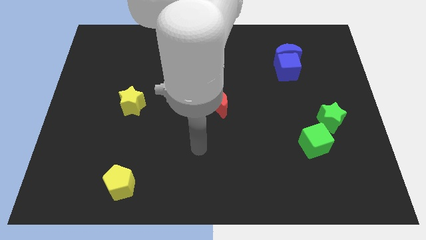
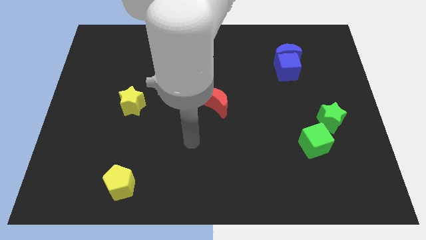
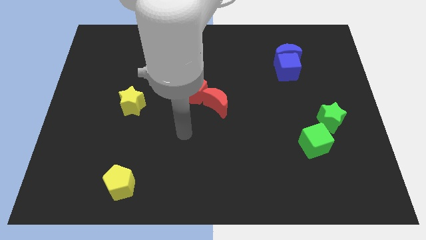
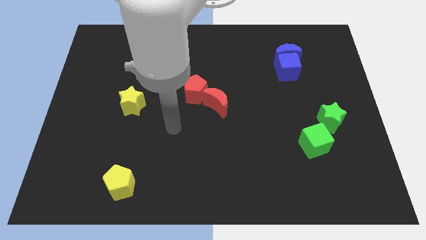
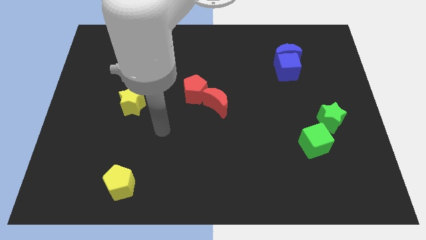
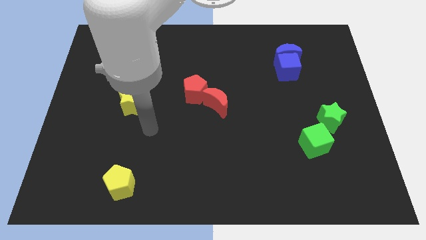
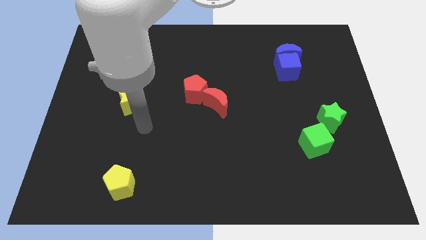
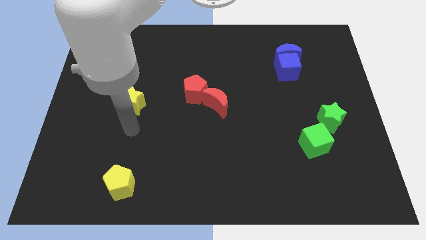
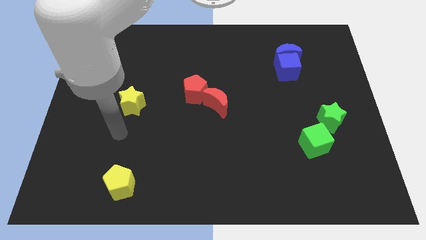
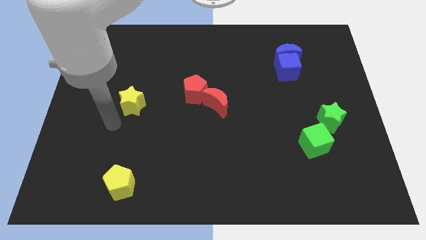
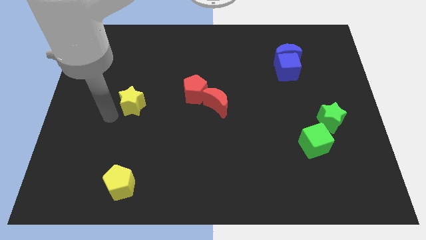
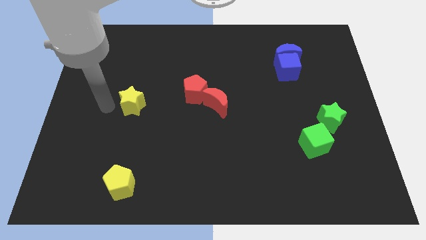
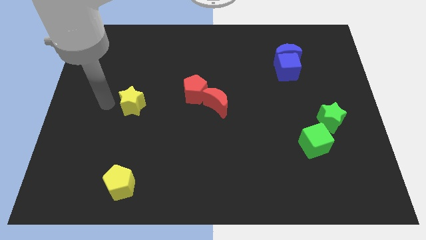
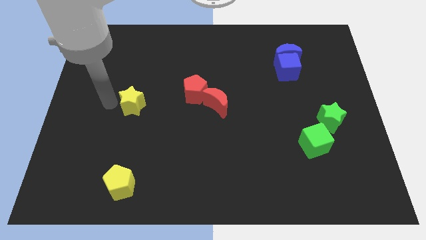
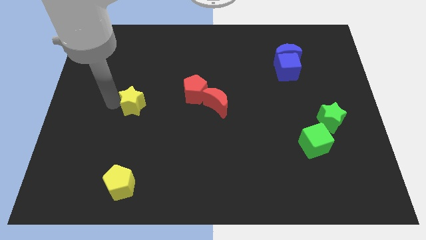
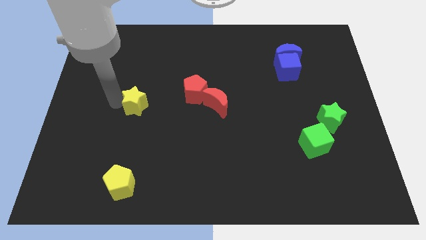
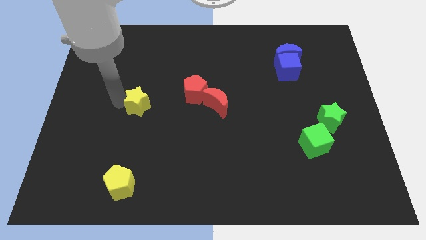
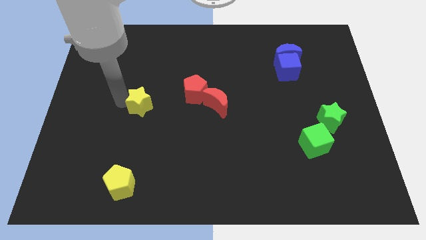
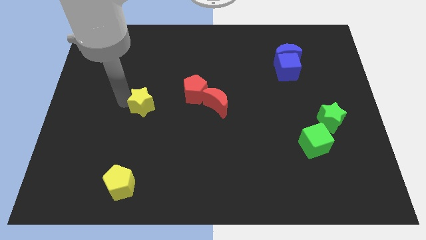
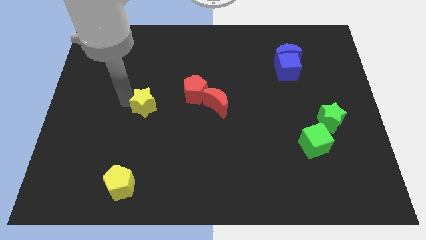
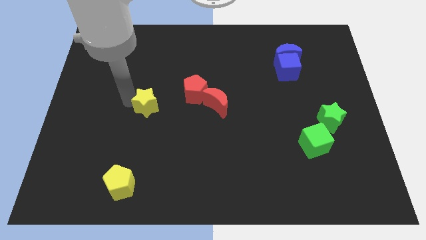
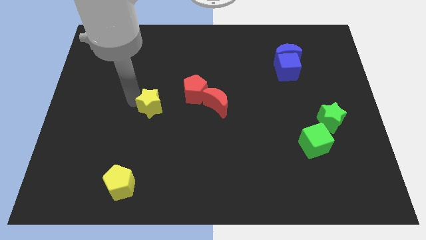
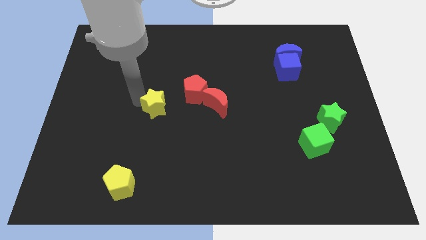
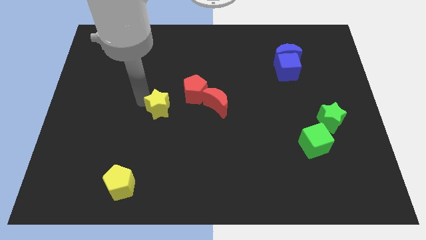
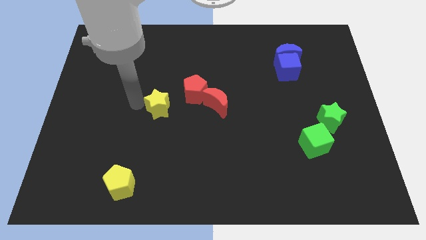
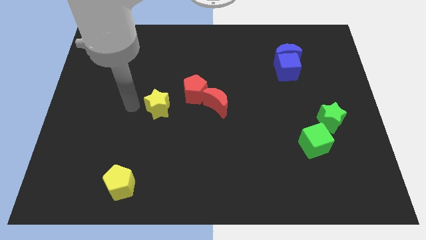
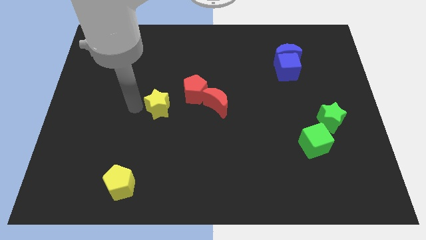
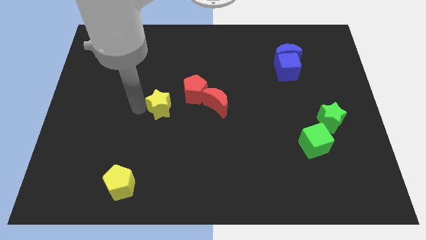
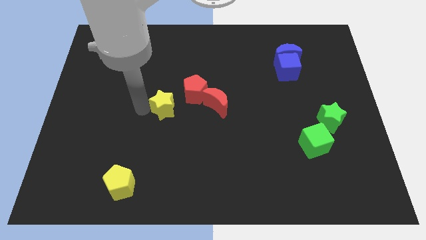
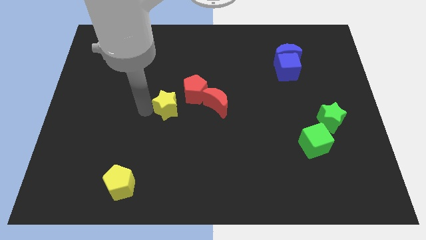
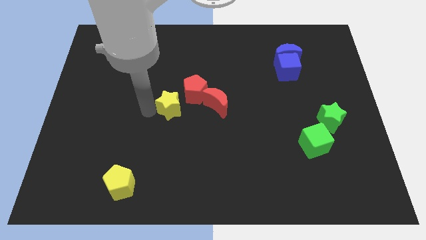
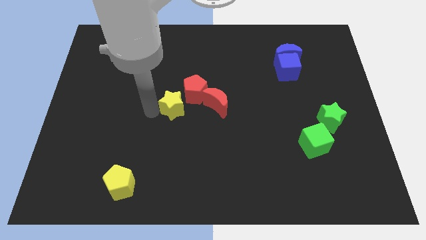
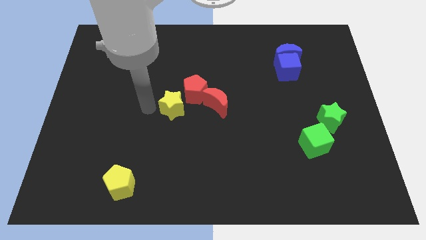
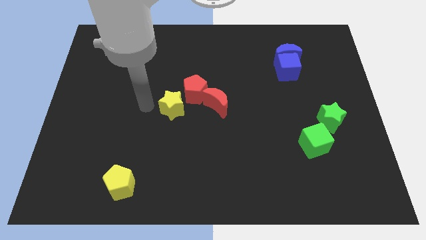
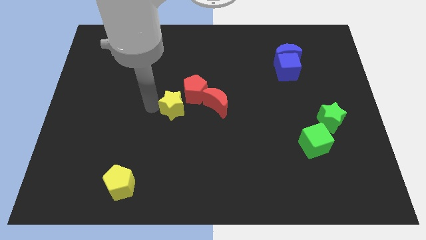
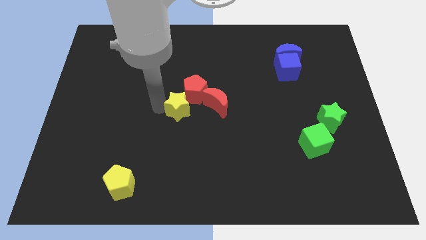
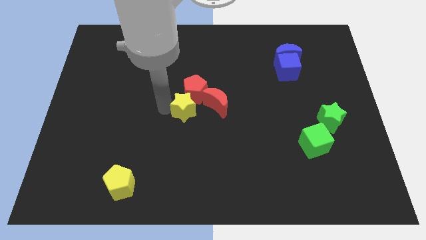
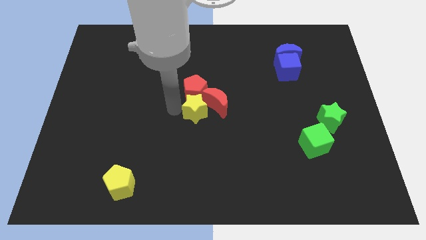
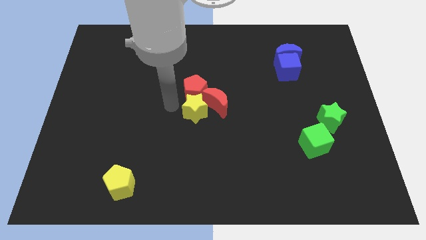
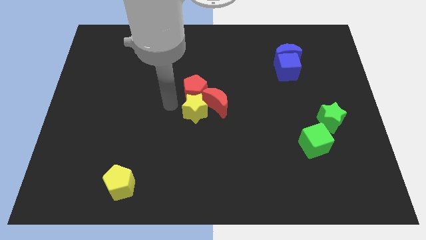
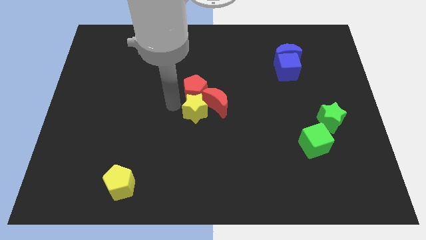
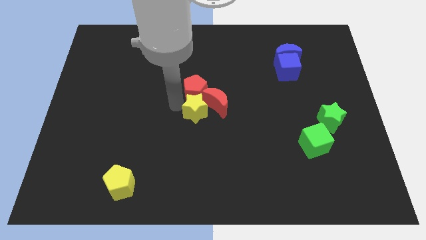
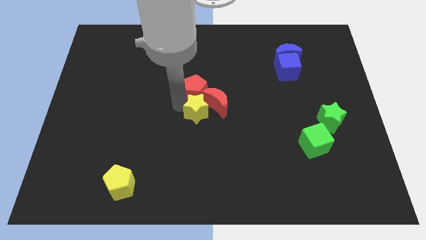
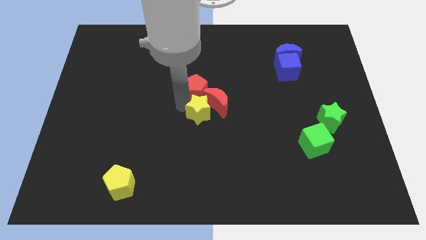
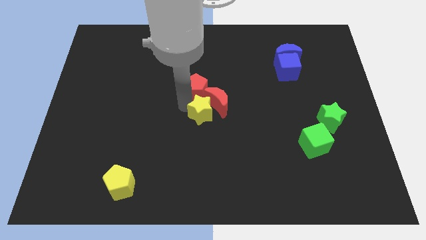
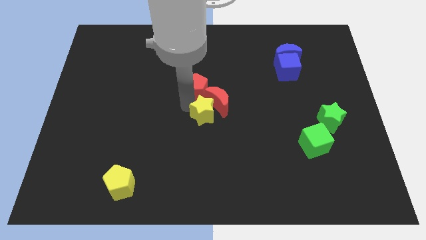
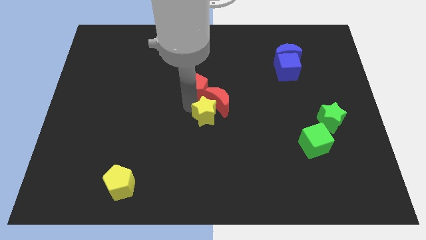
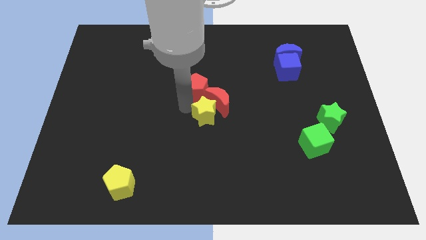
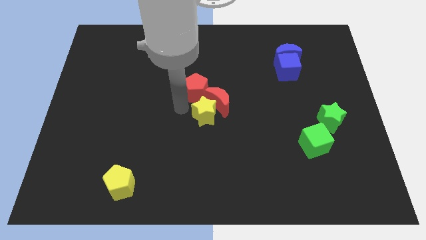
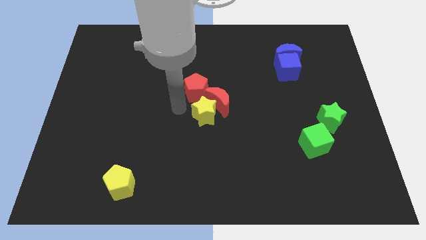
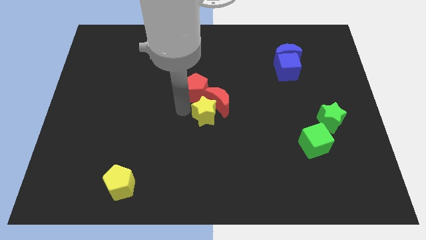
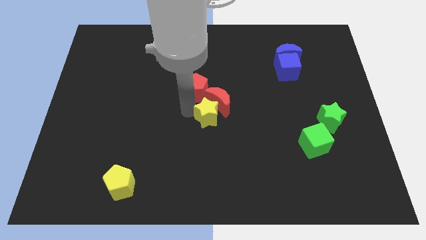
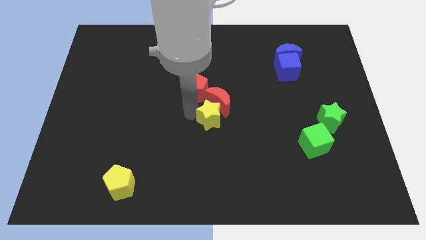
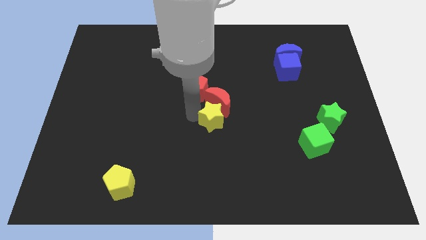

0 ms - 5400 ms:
slide the yellow star to the bottom right side of the red moon

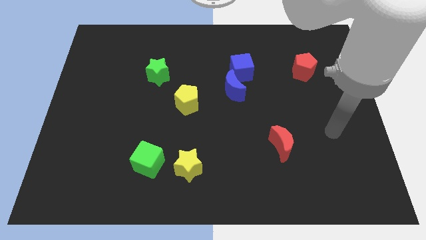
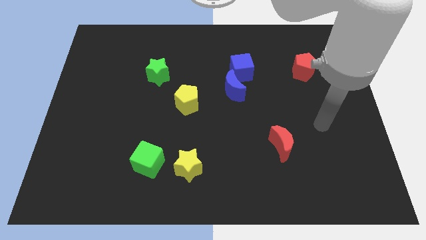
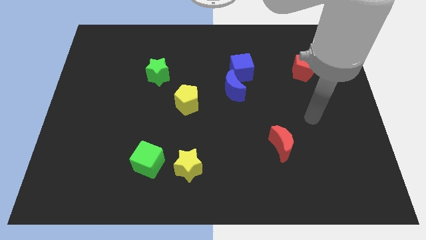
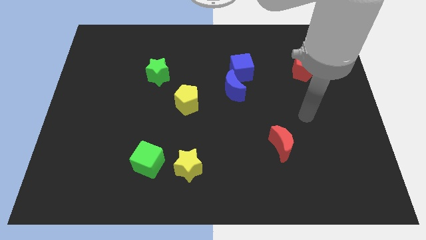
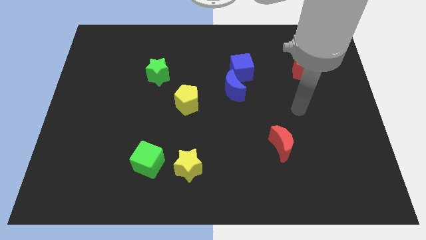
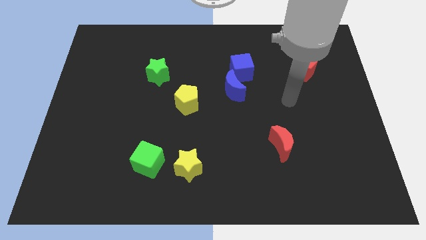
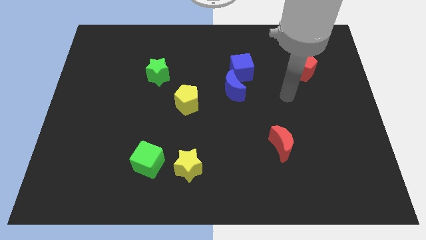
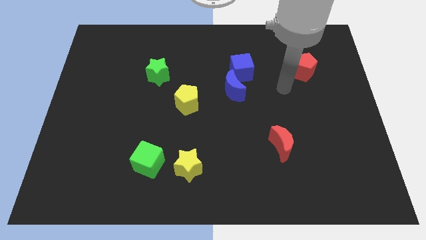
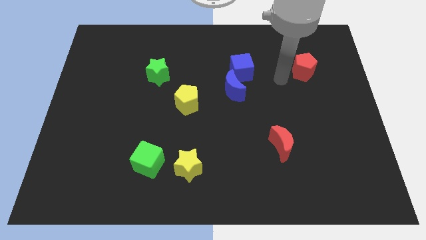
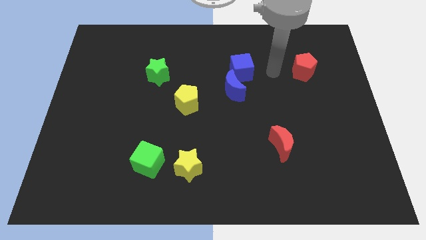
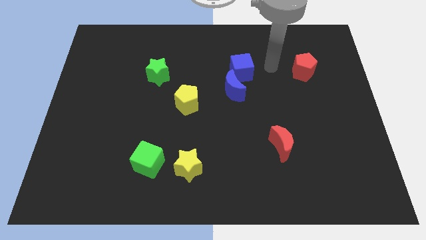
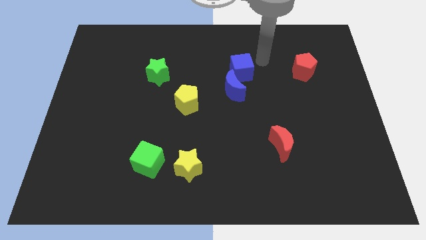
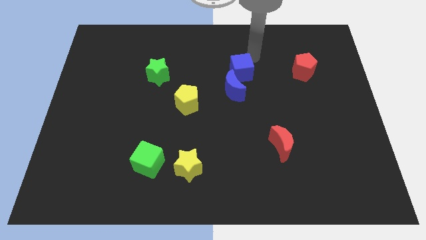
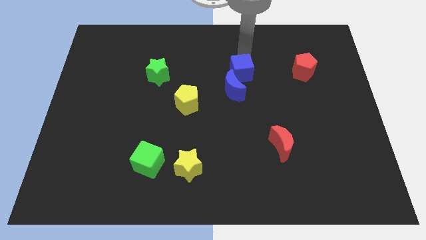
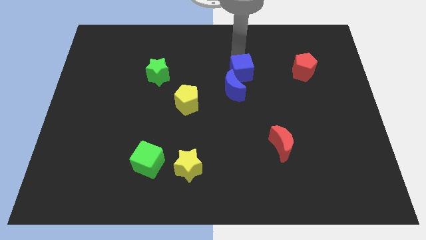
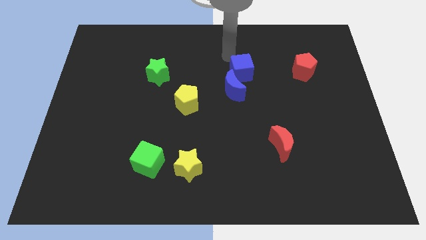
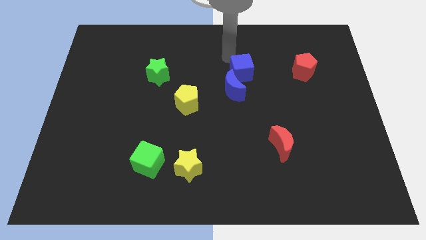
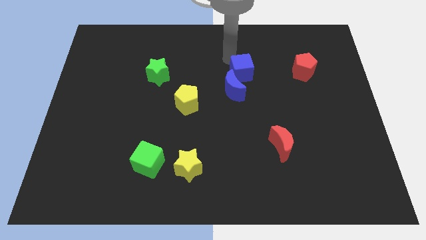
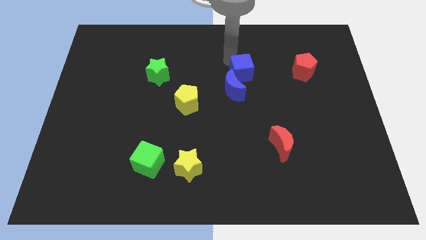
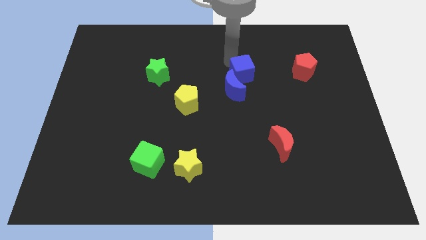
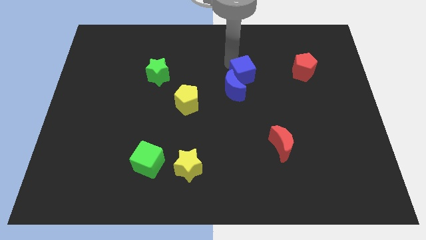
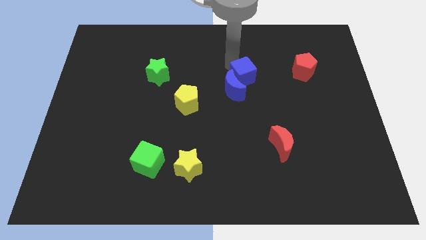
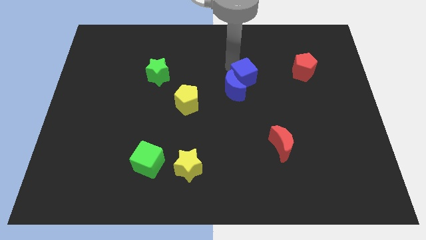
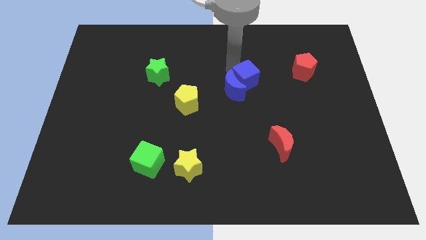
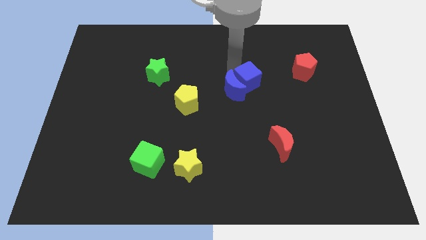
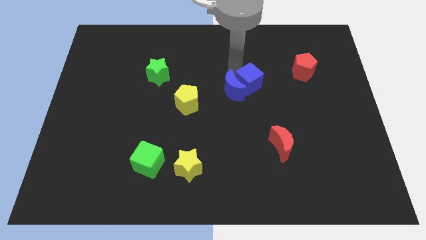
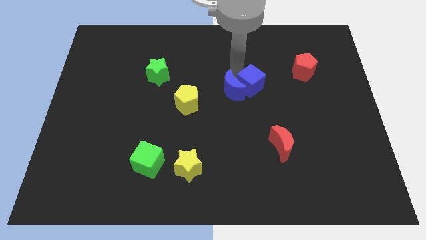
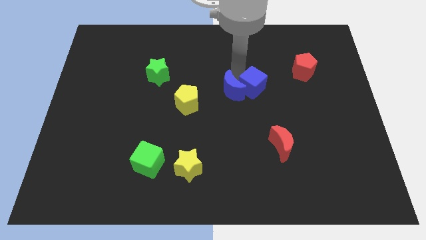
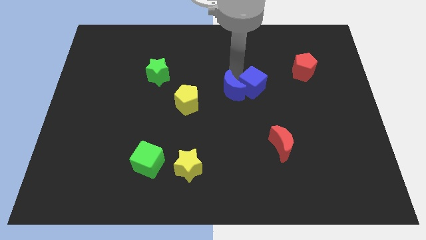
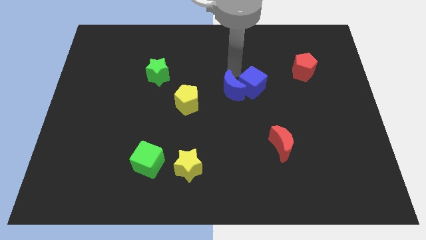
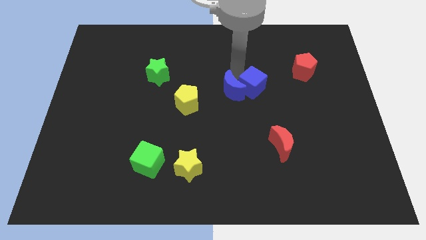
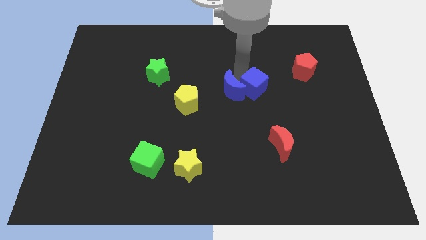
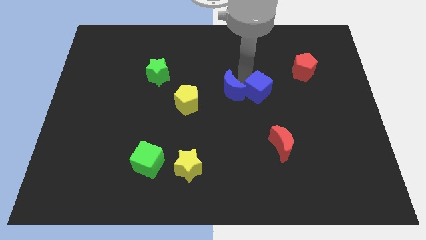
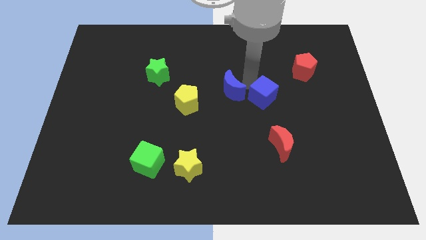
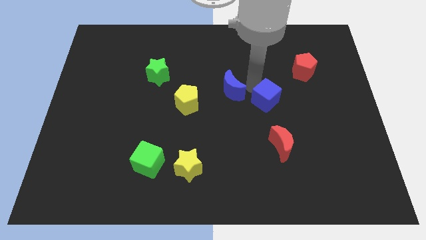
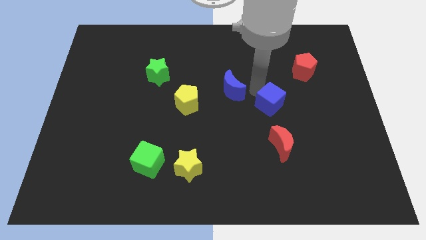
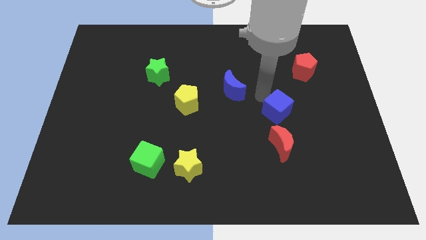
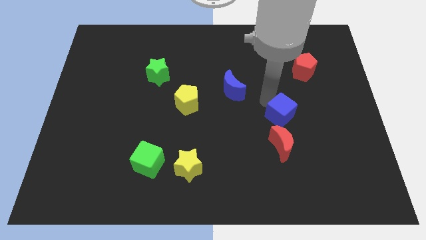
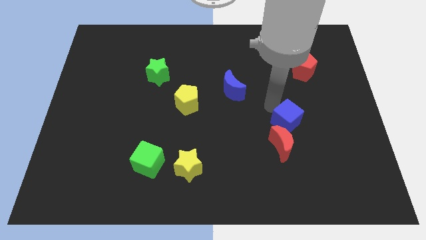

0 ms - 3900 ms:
push the blue cube to the top right side of the red moon
